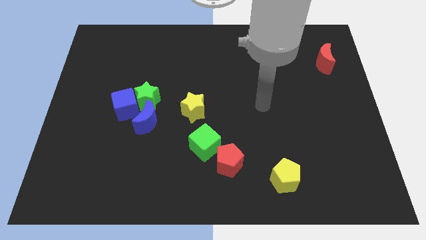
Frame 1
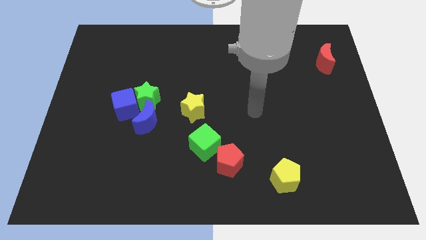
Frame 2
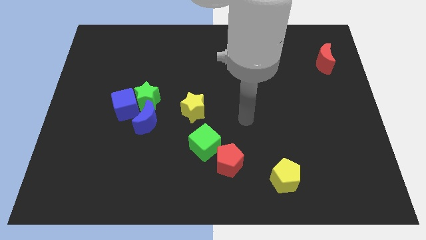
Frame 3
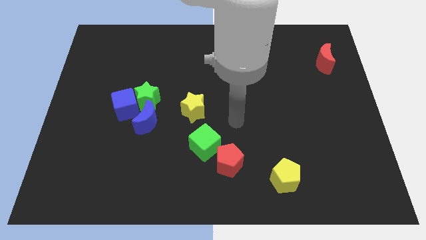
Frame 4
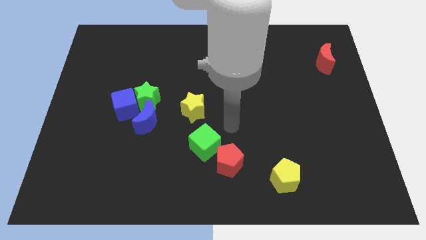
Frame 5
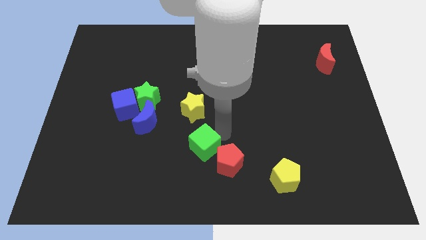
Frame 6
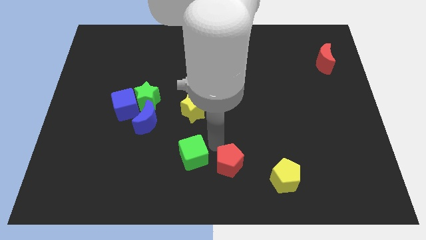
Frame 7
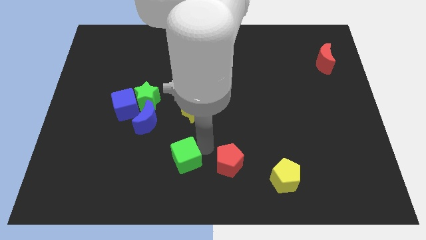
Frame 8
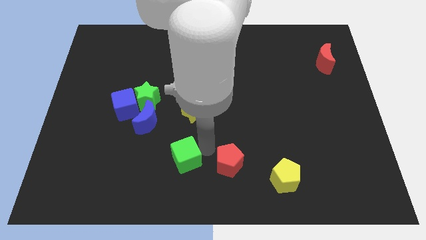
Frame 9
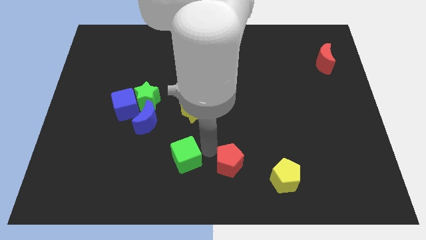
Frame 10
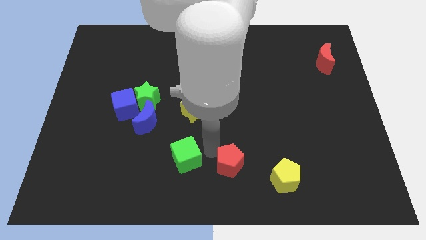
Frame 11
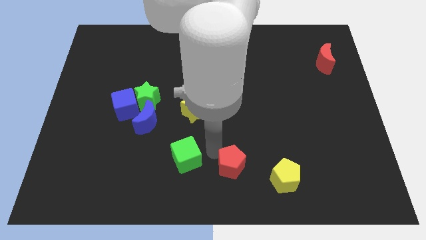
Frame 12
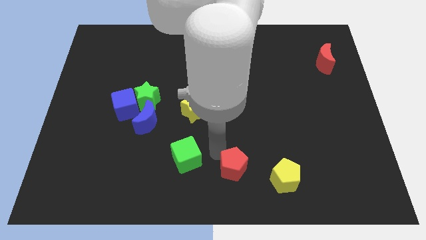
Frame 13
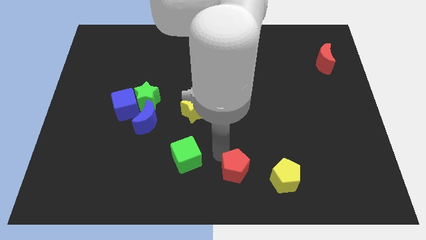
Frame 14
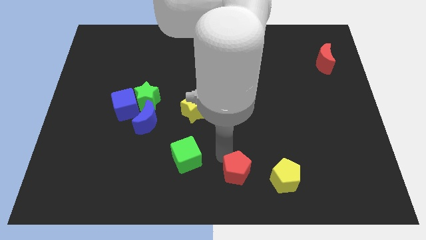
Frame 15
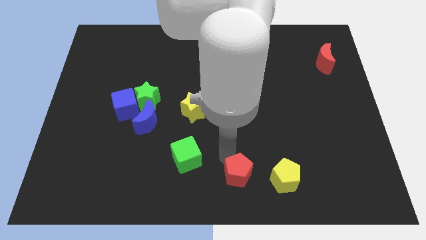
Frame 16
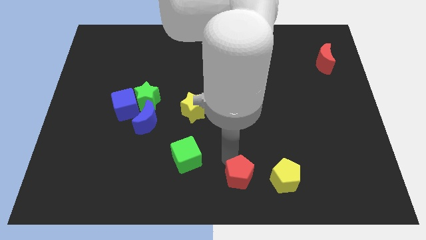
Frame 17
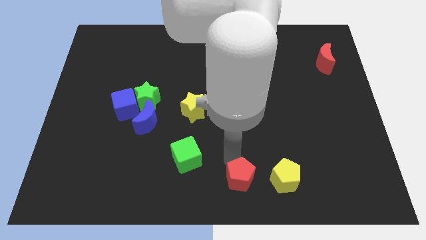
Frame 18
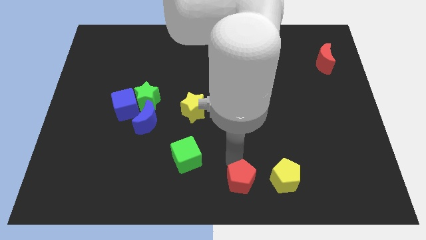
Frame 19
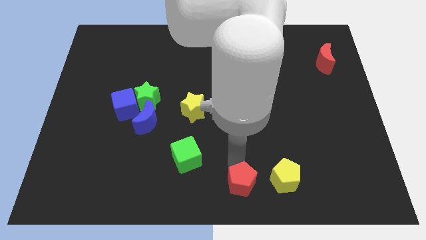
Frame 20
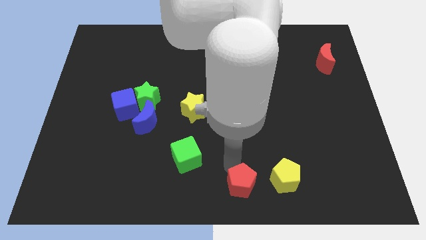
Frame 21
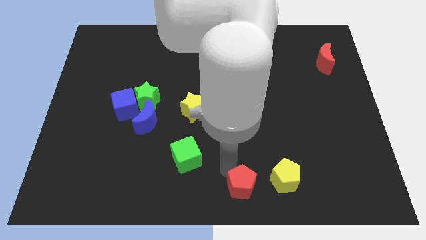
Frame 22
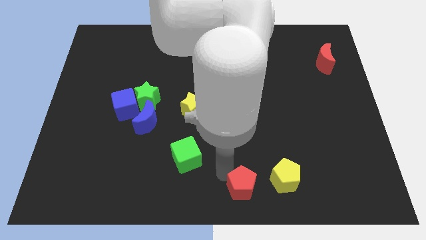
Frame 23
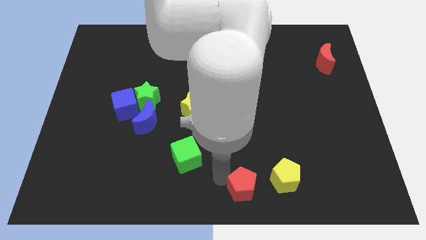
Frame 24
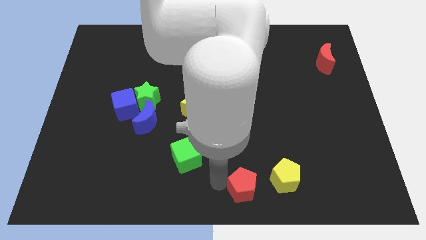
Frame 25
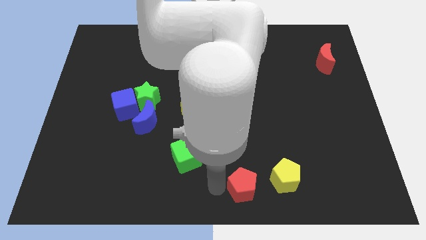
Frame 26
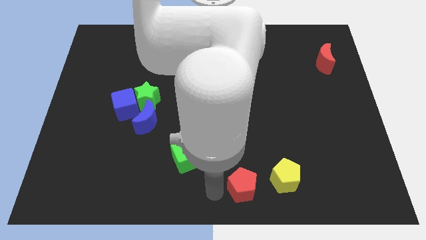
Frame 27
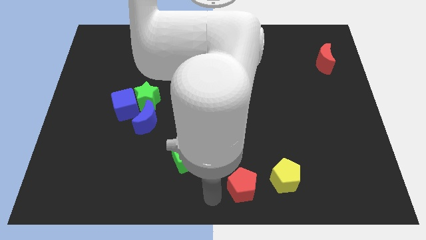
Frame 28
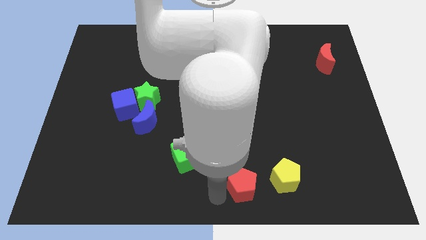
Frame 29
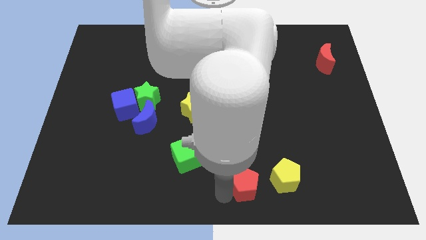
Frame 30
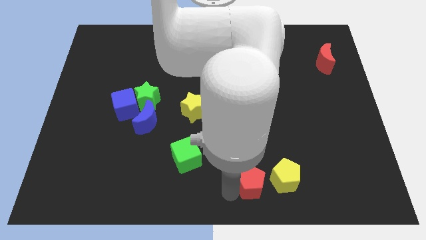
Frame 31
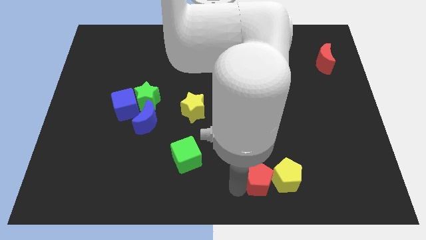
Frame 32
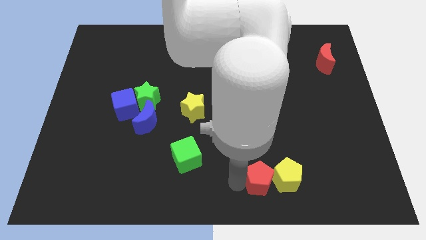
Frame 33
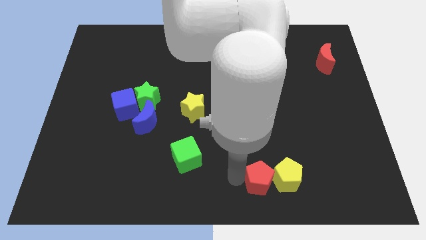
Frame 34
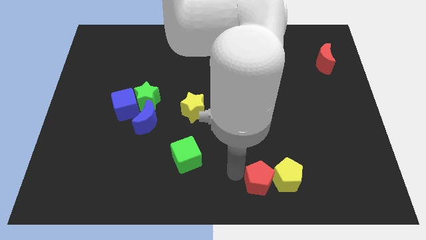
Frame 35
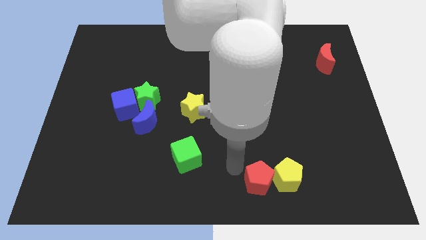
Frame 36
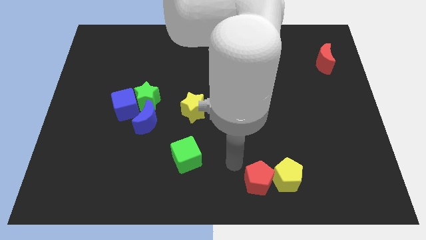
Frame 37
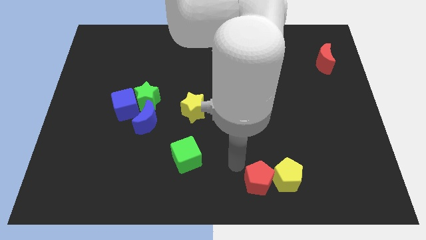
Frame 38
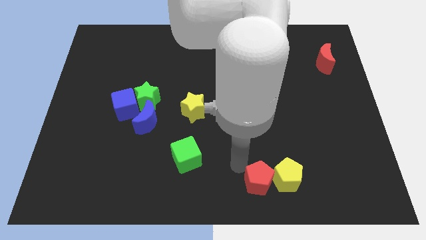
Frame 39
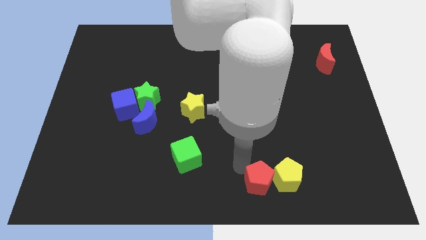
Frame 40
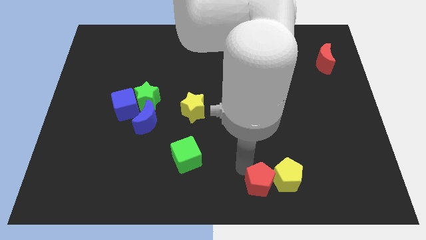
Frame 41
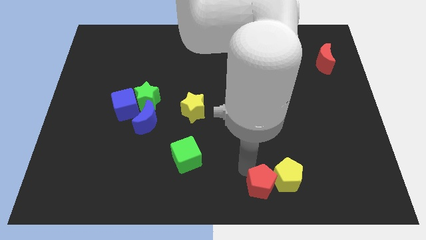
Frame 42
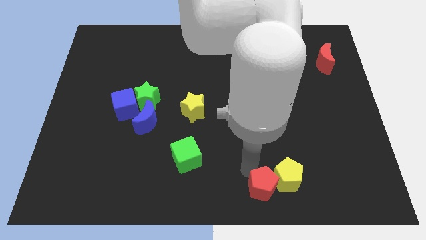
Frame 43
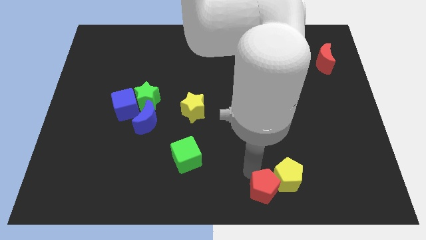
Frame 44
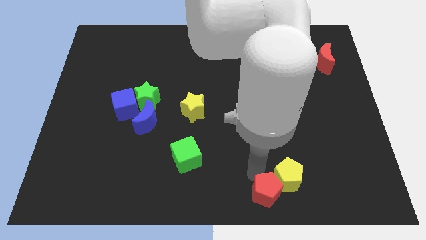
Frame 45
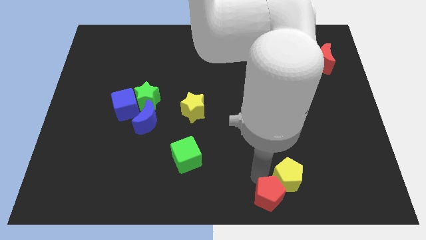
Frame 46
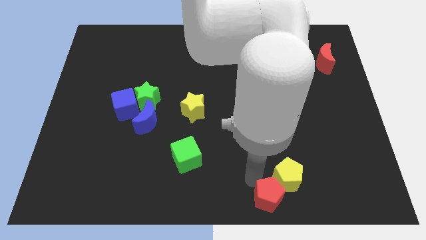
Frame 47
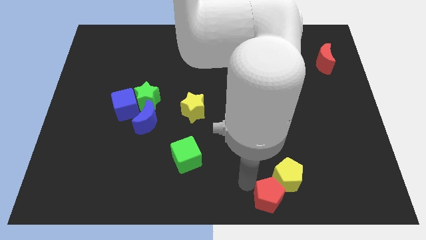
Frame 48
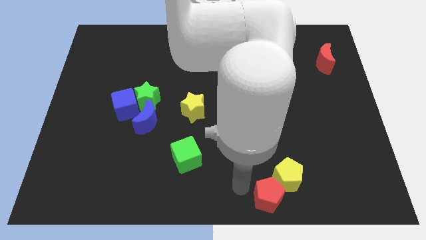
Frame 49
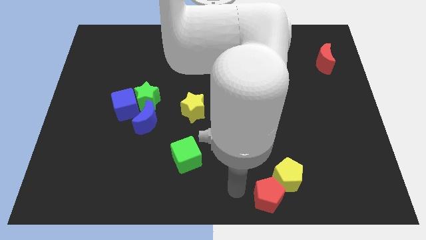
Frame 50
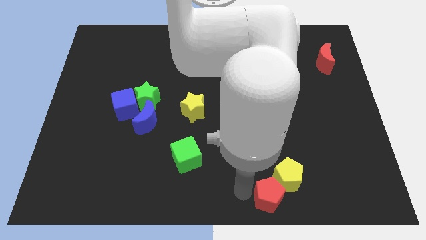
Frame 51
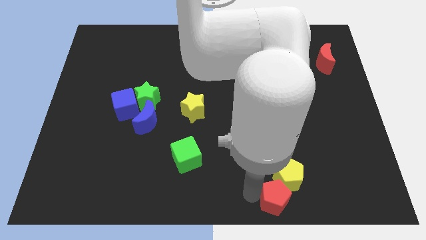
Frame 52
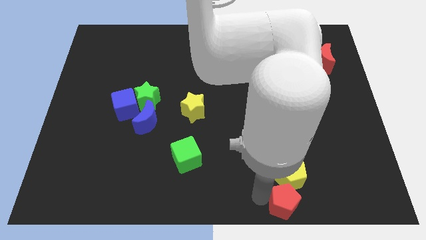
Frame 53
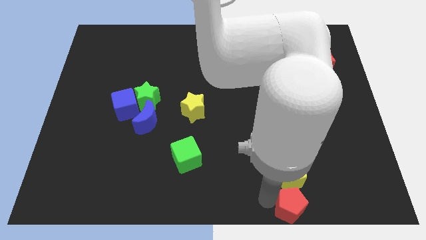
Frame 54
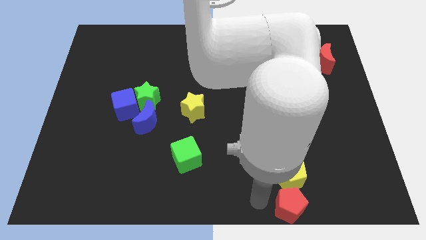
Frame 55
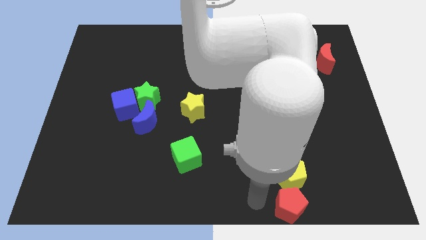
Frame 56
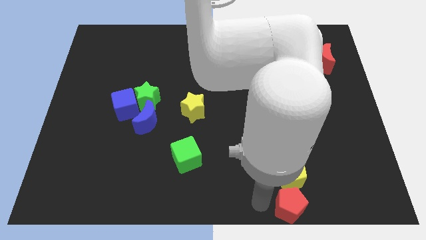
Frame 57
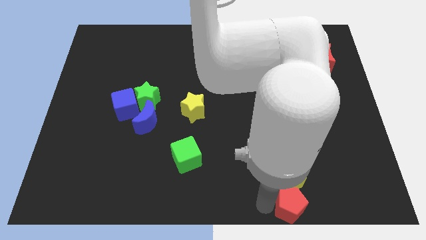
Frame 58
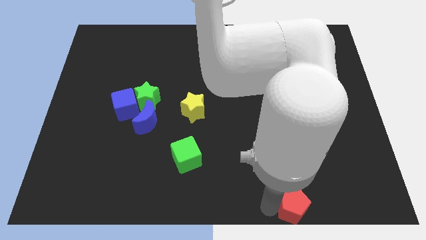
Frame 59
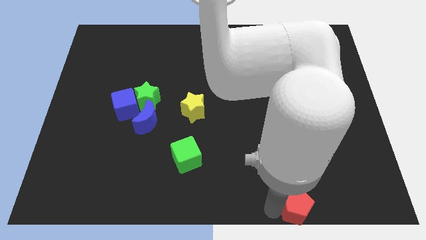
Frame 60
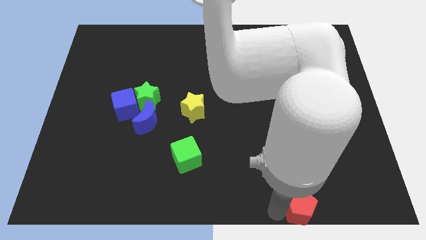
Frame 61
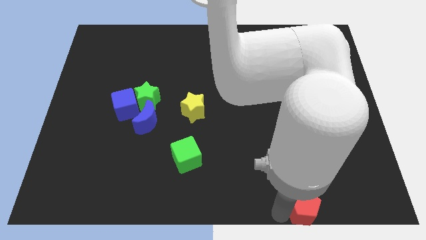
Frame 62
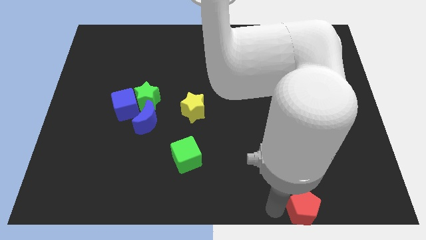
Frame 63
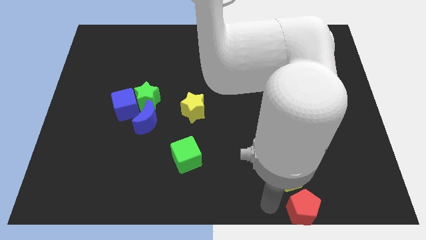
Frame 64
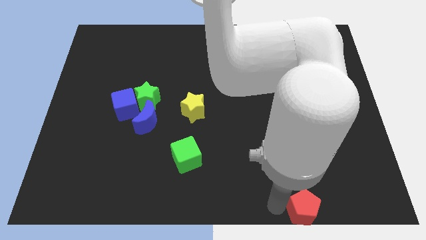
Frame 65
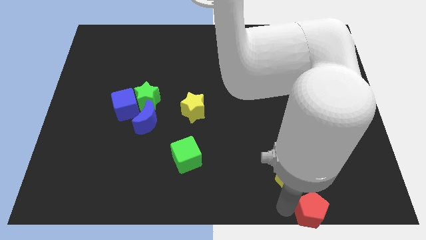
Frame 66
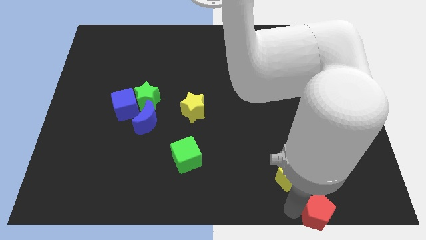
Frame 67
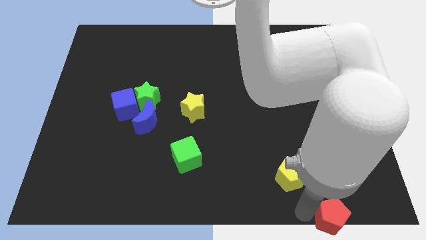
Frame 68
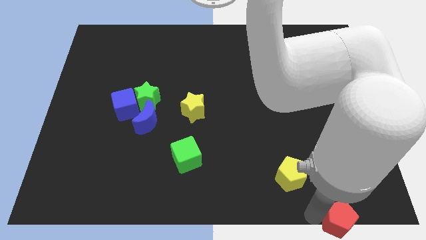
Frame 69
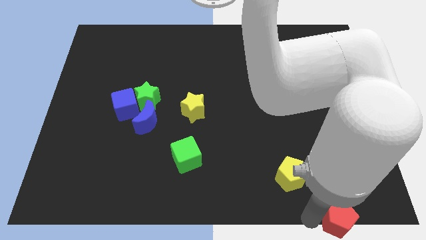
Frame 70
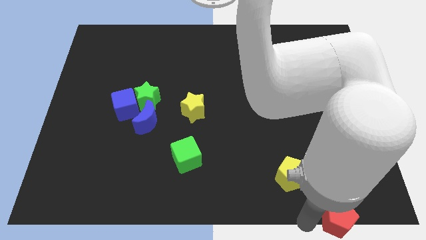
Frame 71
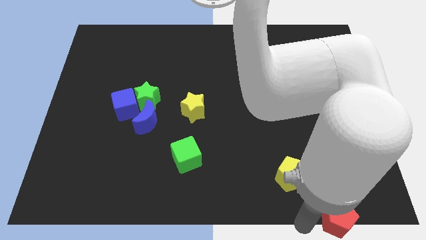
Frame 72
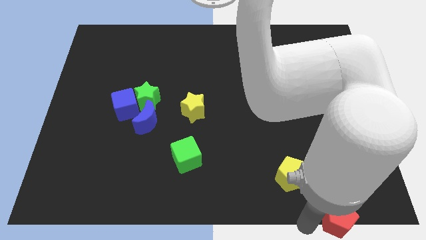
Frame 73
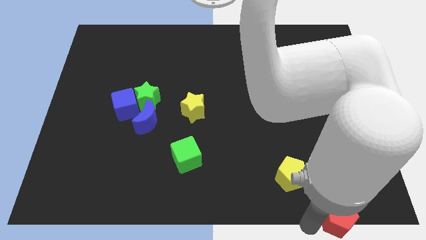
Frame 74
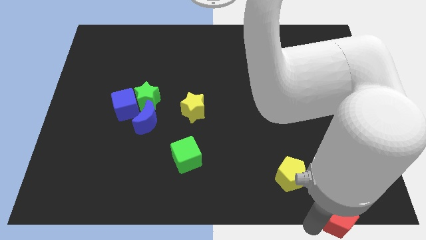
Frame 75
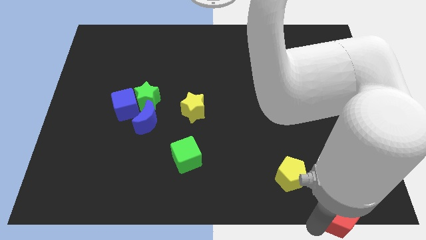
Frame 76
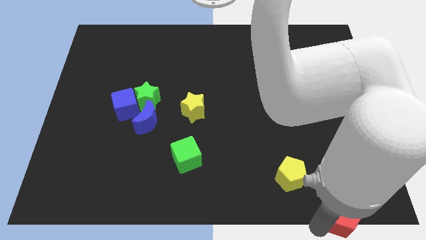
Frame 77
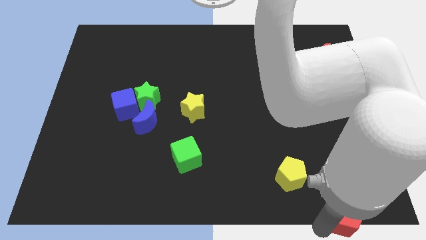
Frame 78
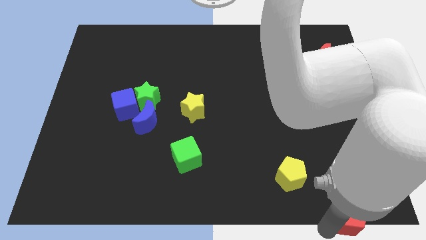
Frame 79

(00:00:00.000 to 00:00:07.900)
move the red pentagon to the bottom right
